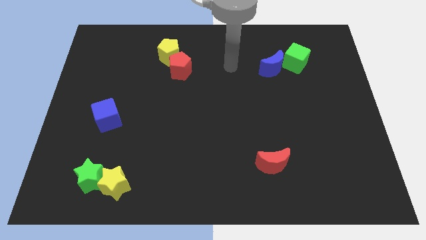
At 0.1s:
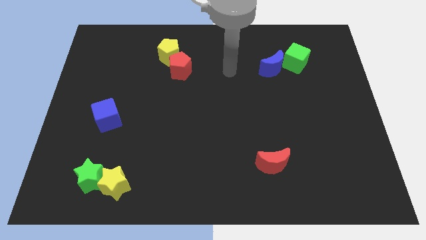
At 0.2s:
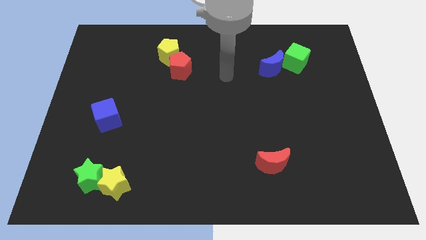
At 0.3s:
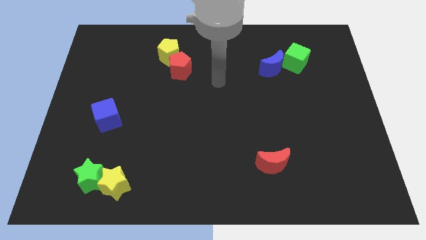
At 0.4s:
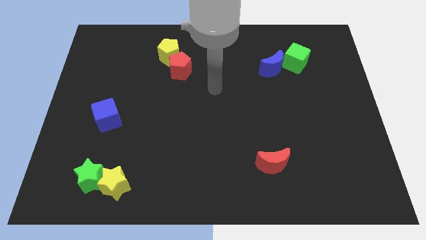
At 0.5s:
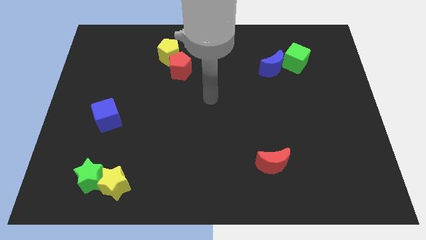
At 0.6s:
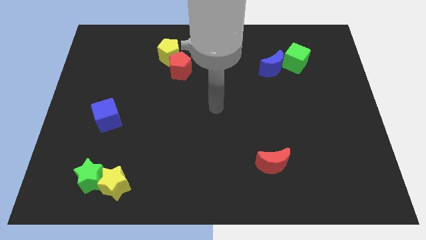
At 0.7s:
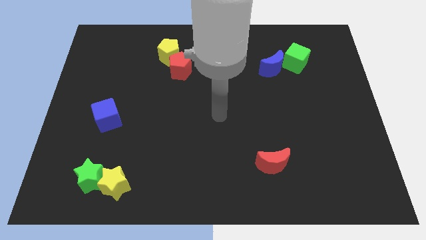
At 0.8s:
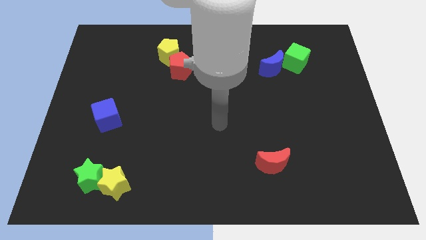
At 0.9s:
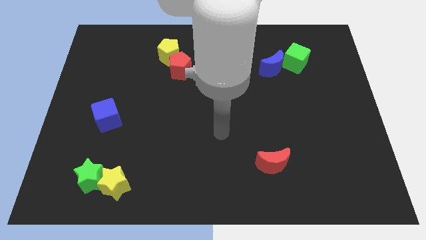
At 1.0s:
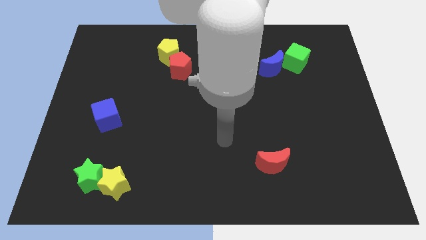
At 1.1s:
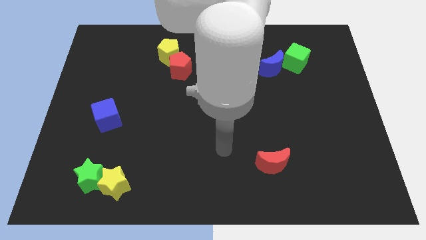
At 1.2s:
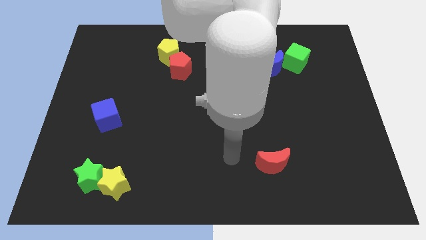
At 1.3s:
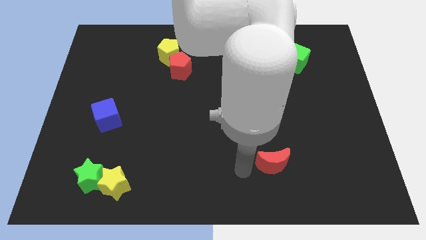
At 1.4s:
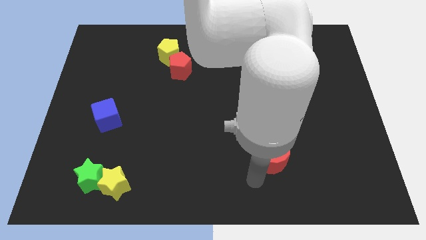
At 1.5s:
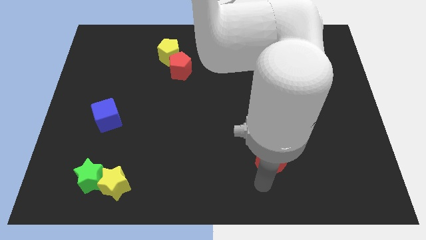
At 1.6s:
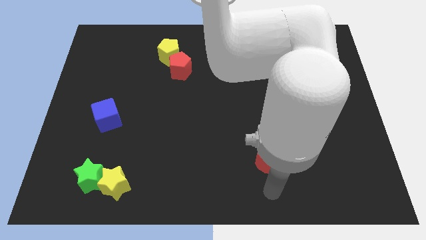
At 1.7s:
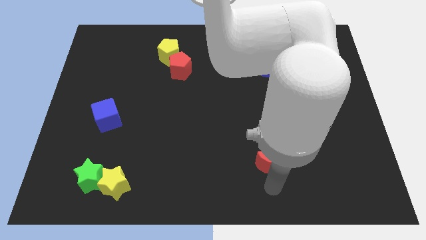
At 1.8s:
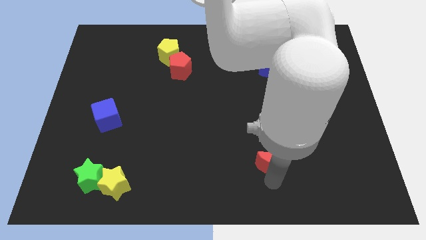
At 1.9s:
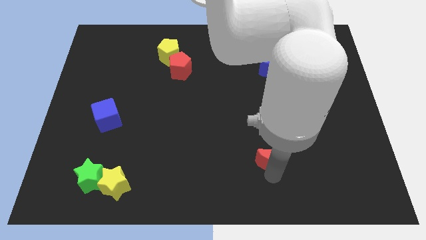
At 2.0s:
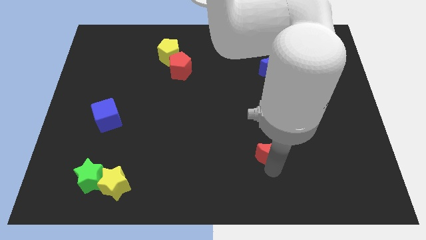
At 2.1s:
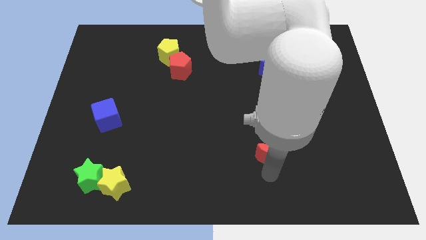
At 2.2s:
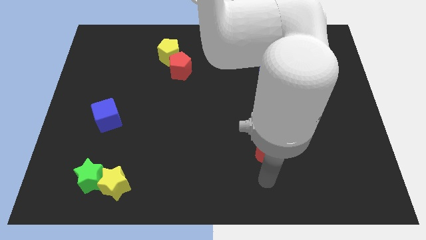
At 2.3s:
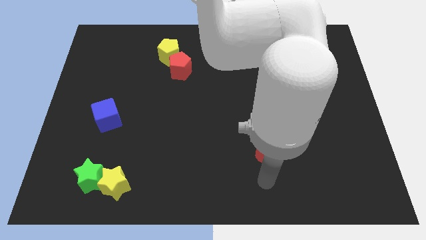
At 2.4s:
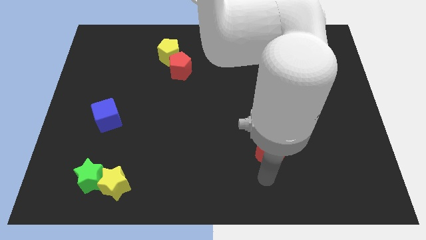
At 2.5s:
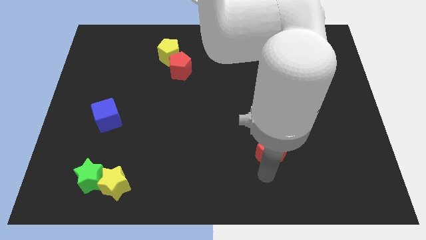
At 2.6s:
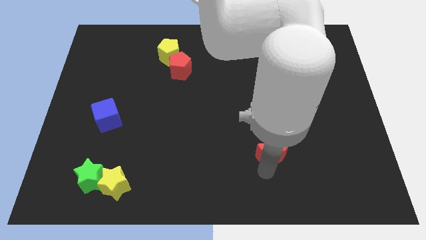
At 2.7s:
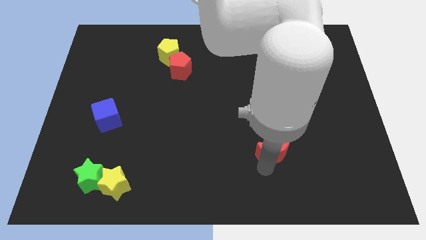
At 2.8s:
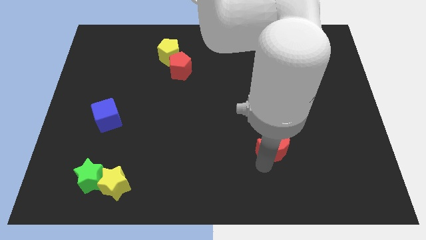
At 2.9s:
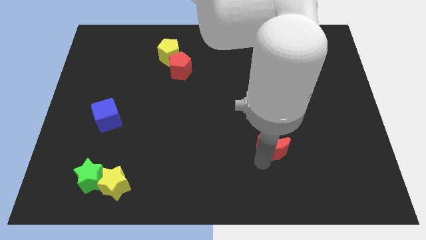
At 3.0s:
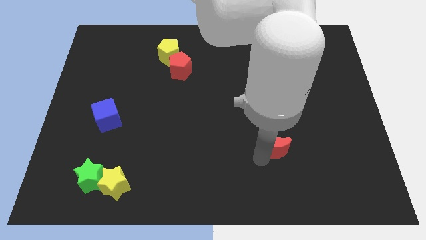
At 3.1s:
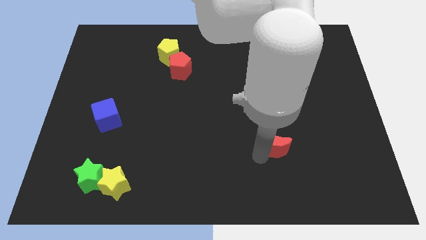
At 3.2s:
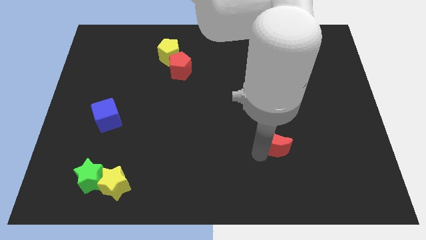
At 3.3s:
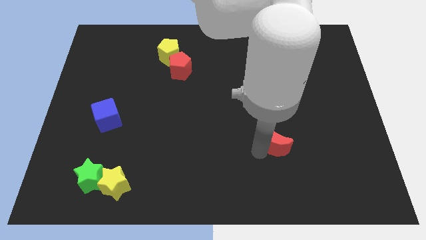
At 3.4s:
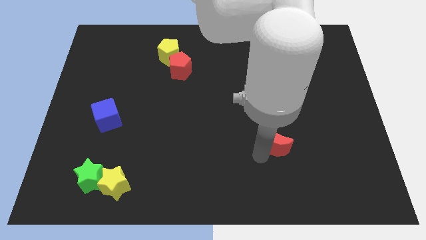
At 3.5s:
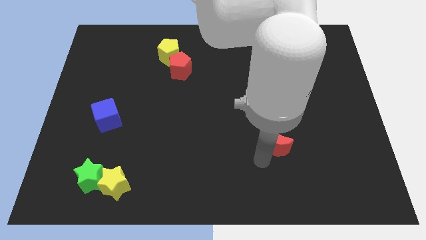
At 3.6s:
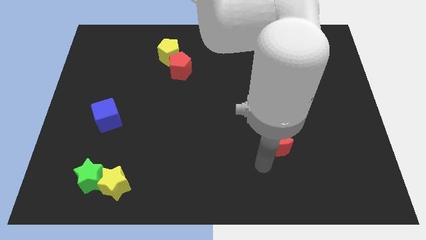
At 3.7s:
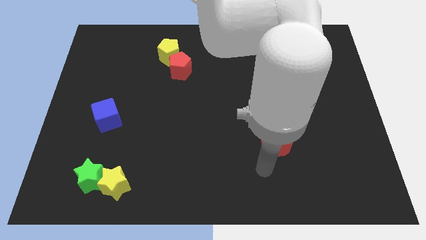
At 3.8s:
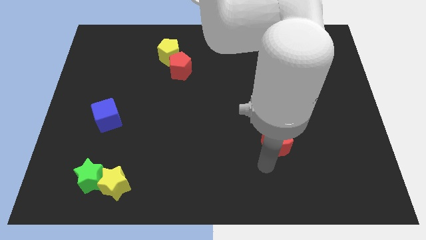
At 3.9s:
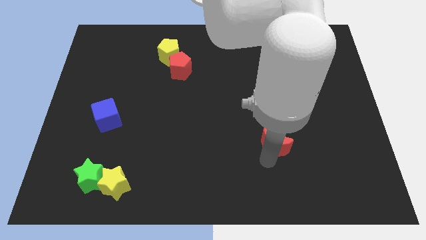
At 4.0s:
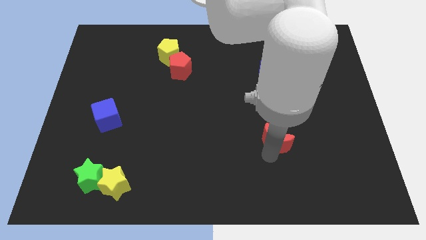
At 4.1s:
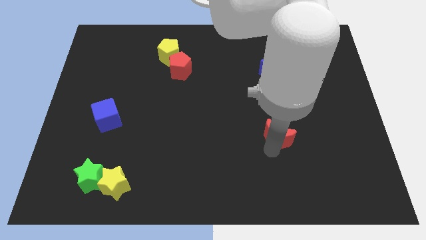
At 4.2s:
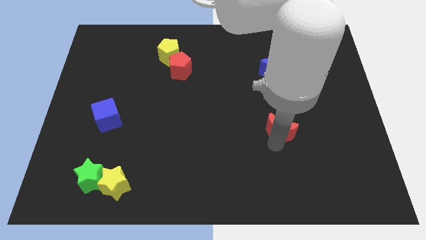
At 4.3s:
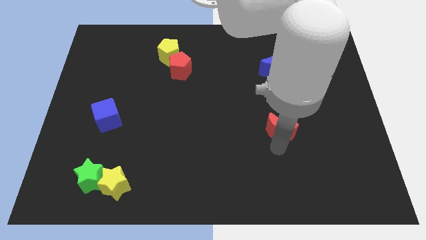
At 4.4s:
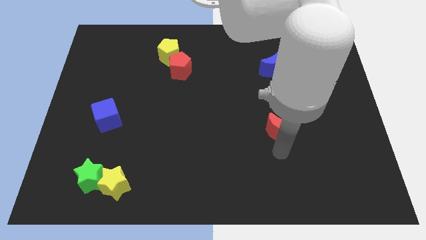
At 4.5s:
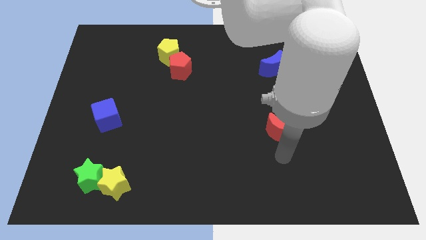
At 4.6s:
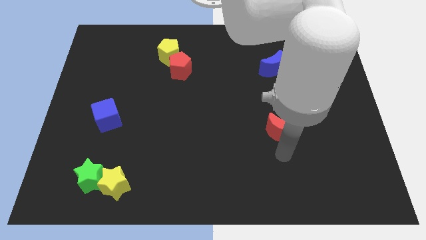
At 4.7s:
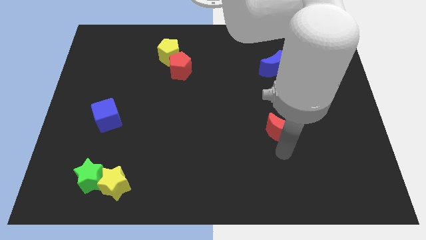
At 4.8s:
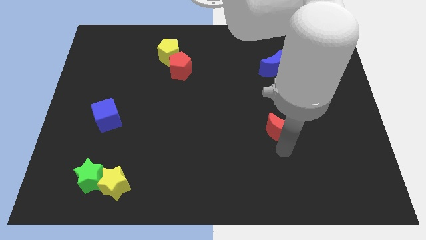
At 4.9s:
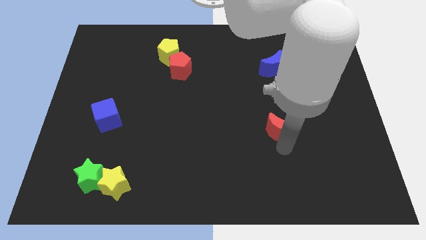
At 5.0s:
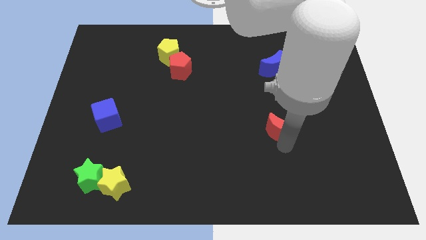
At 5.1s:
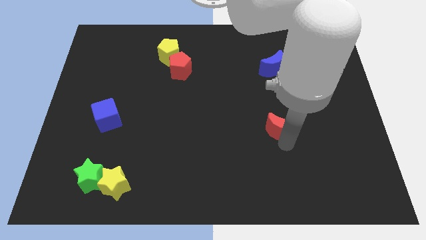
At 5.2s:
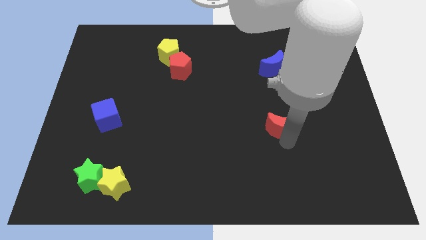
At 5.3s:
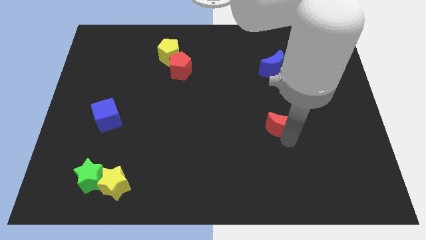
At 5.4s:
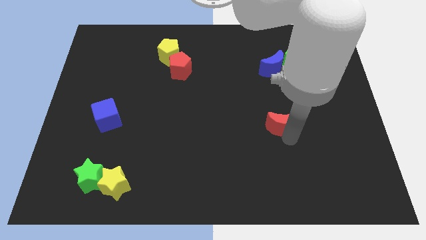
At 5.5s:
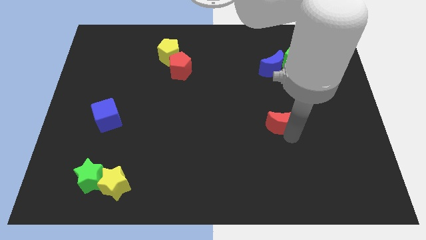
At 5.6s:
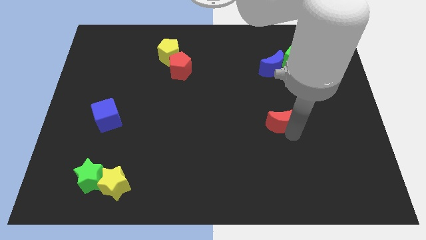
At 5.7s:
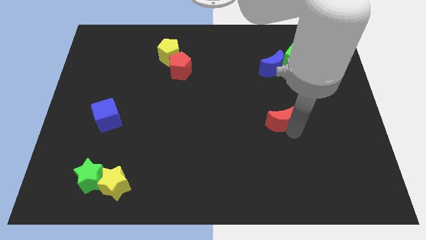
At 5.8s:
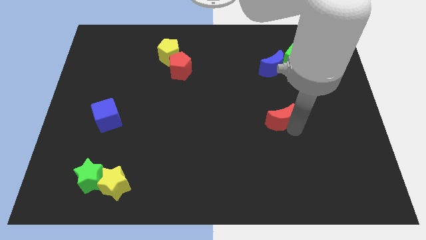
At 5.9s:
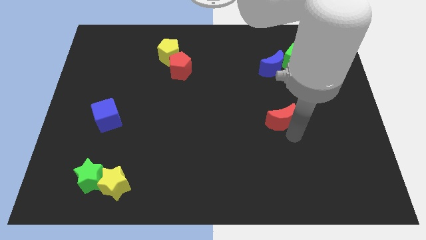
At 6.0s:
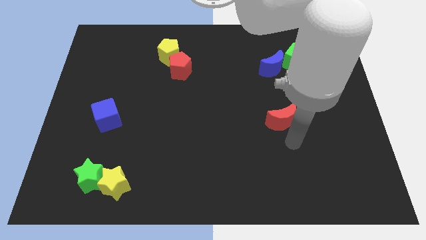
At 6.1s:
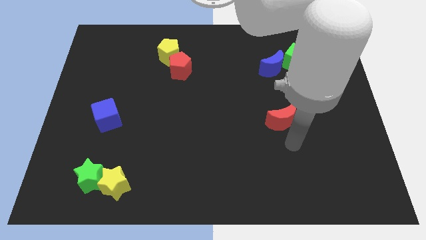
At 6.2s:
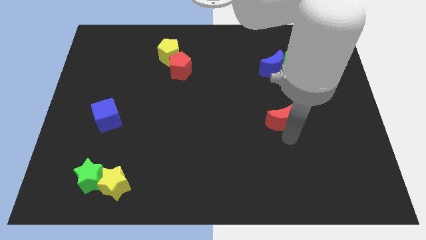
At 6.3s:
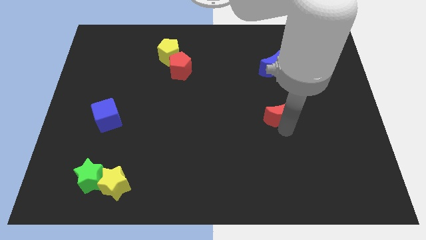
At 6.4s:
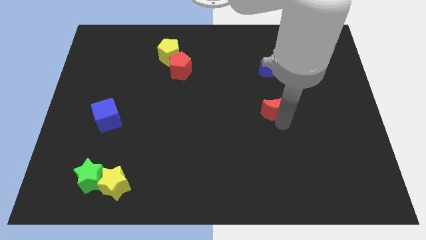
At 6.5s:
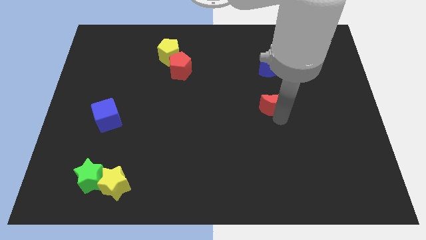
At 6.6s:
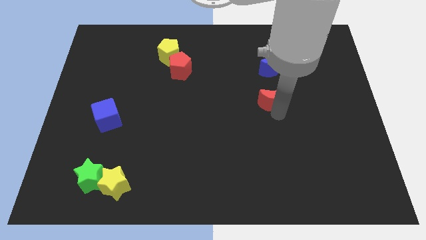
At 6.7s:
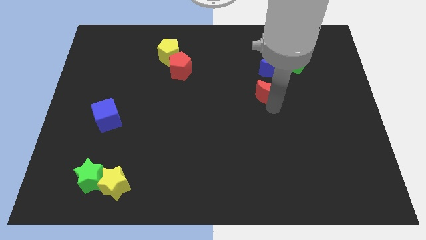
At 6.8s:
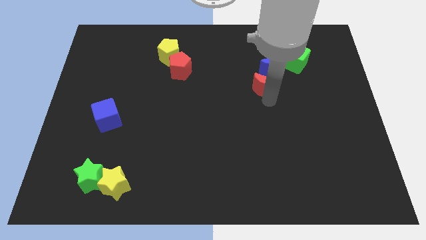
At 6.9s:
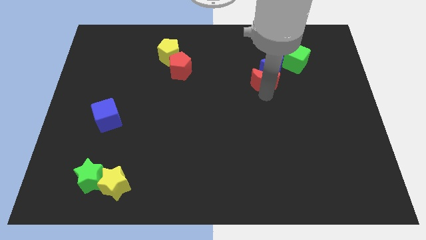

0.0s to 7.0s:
slide the red moon close to the blue moon
